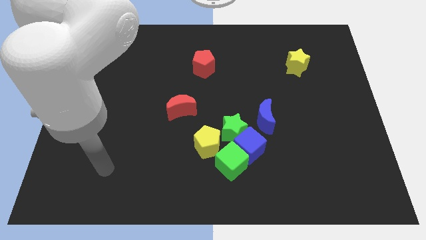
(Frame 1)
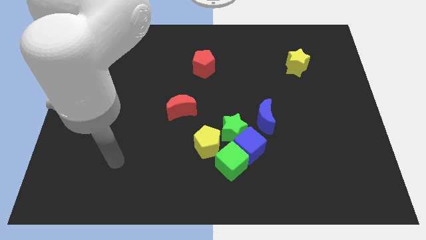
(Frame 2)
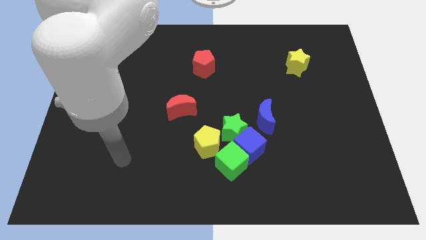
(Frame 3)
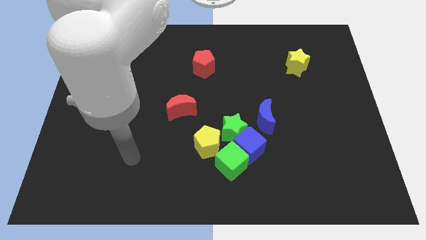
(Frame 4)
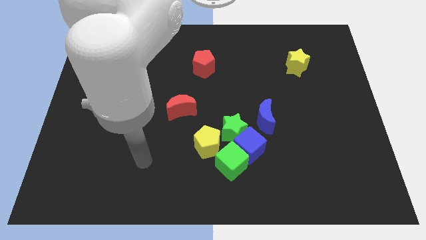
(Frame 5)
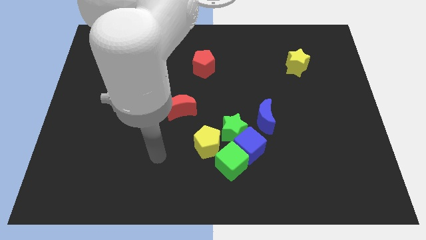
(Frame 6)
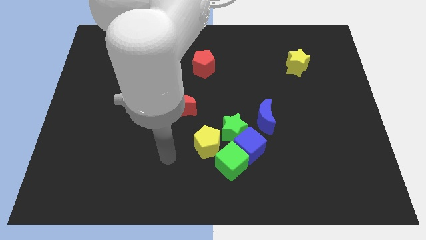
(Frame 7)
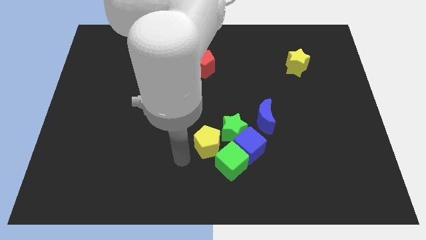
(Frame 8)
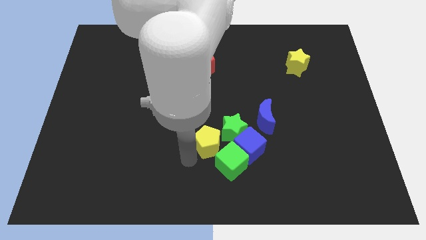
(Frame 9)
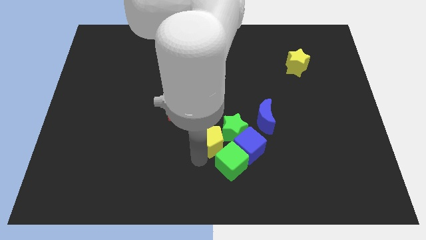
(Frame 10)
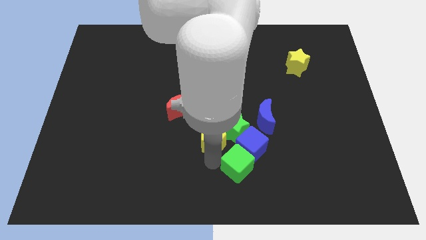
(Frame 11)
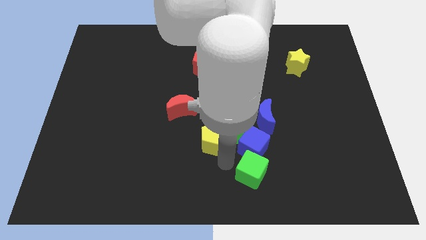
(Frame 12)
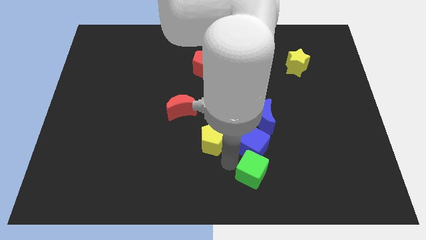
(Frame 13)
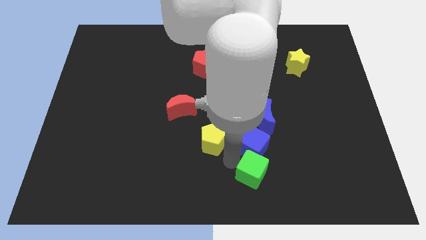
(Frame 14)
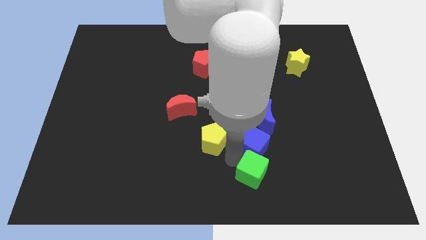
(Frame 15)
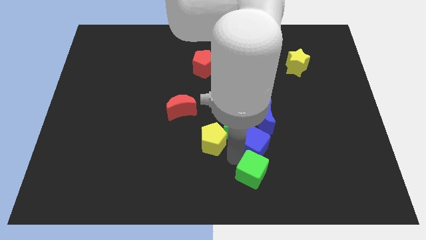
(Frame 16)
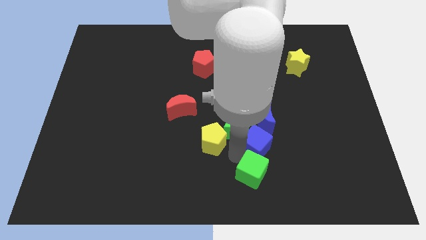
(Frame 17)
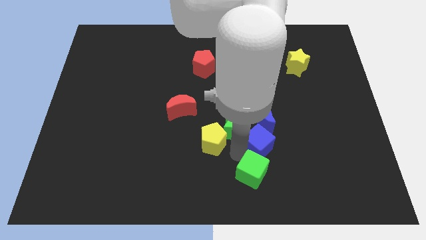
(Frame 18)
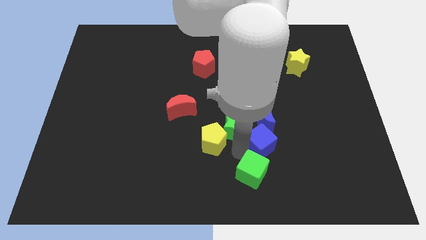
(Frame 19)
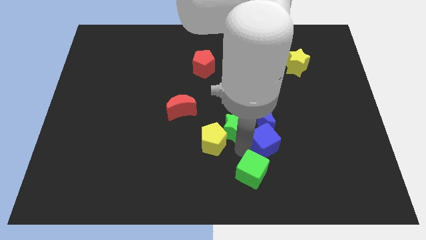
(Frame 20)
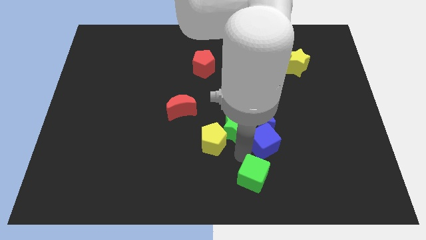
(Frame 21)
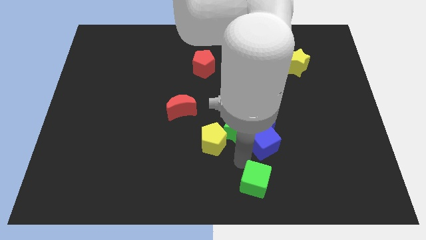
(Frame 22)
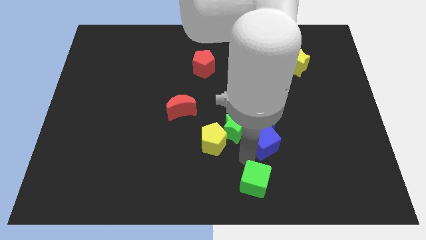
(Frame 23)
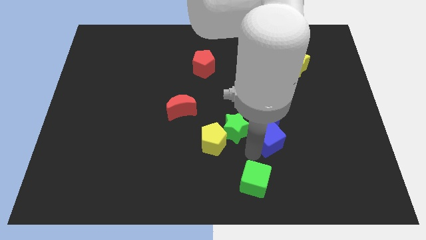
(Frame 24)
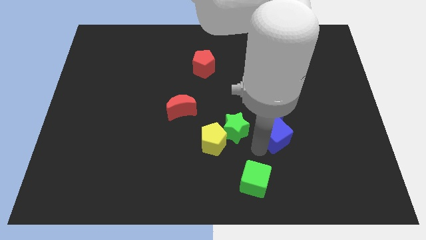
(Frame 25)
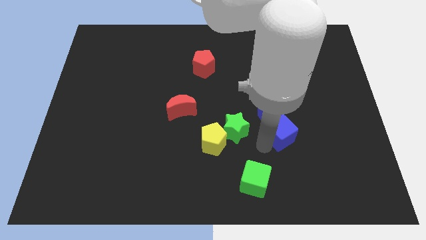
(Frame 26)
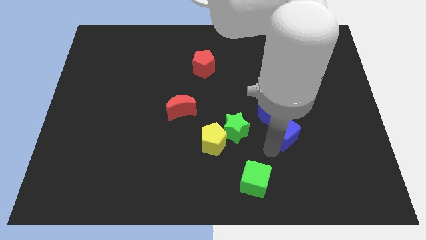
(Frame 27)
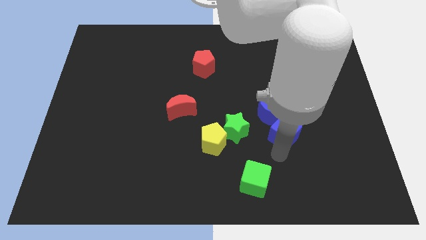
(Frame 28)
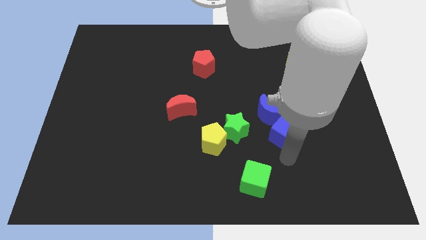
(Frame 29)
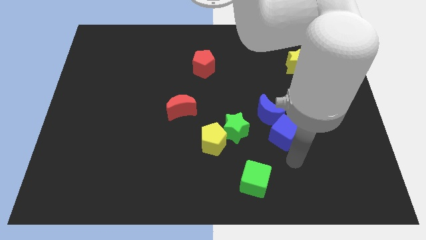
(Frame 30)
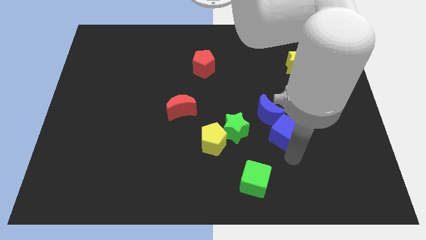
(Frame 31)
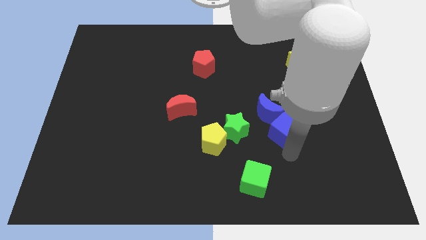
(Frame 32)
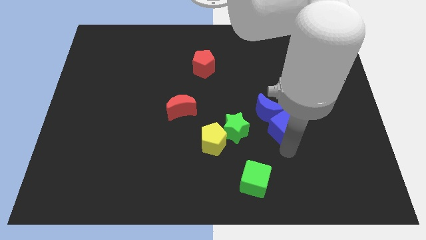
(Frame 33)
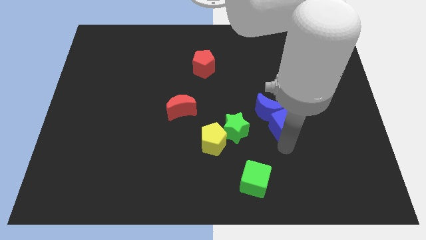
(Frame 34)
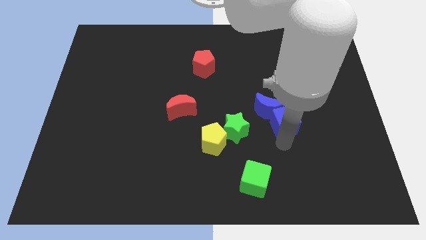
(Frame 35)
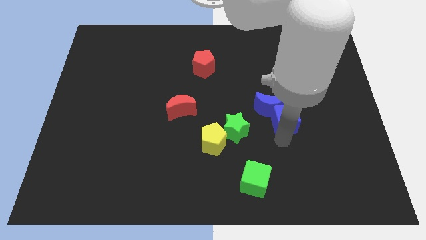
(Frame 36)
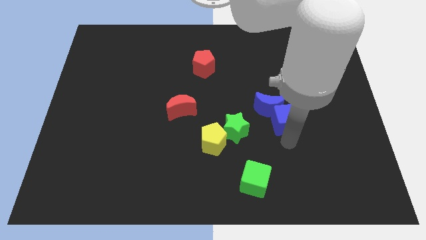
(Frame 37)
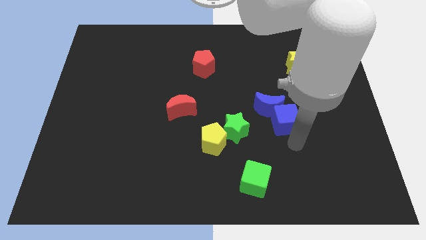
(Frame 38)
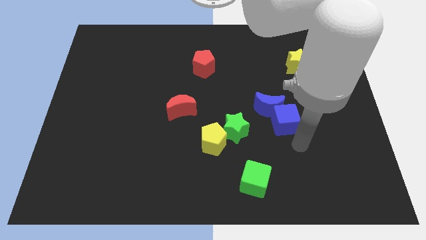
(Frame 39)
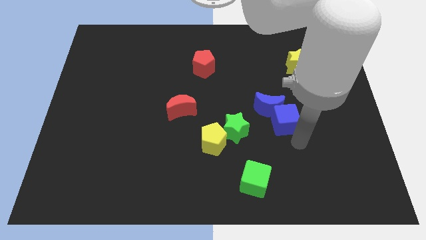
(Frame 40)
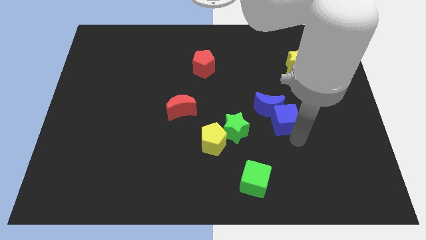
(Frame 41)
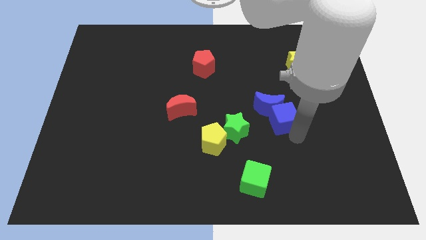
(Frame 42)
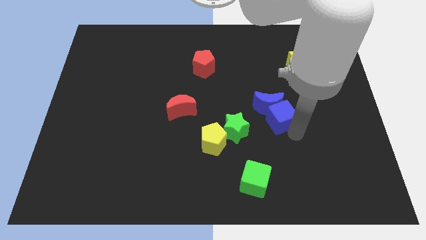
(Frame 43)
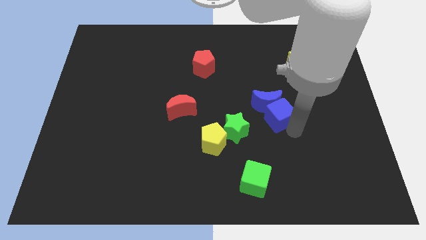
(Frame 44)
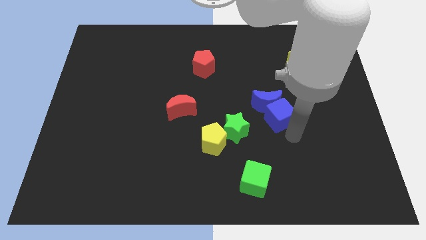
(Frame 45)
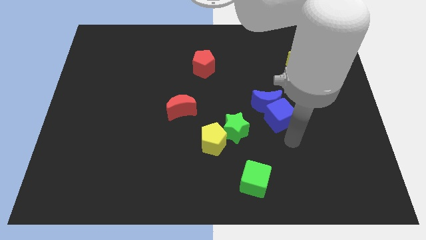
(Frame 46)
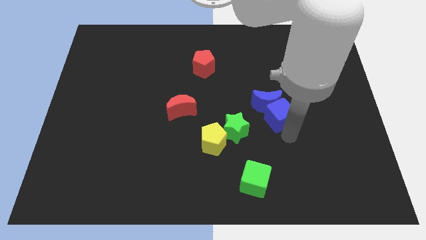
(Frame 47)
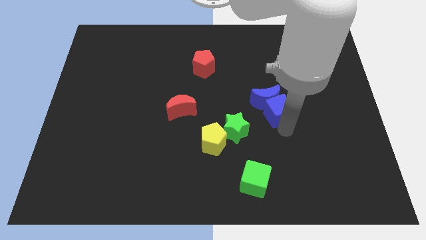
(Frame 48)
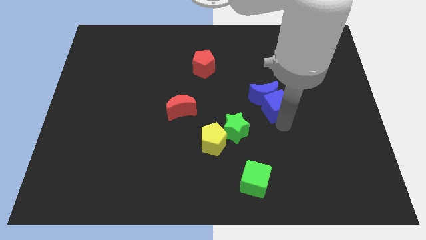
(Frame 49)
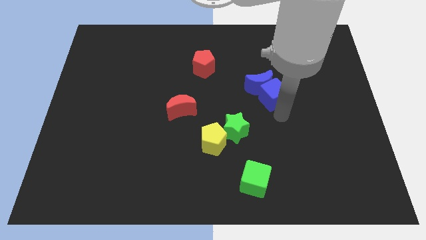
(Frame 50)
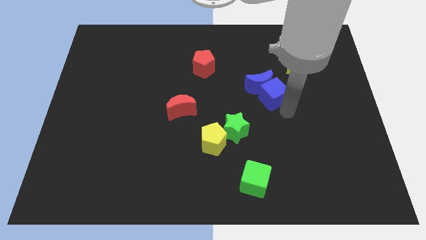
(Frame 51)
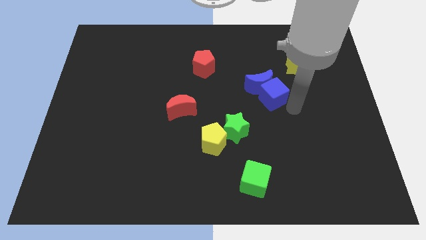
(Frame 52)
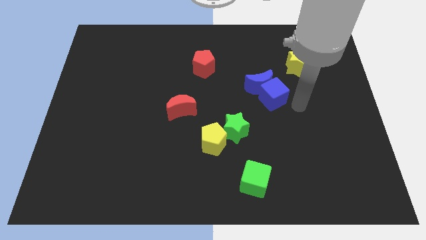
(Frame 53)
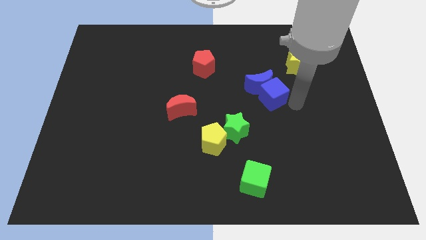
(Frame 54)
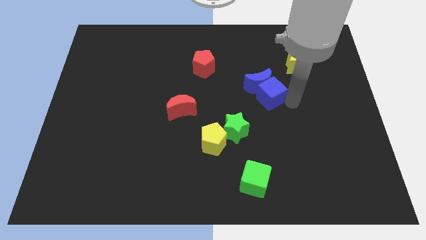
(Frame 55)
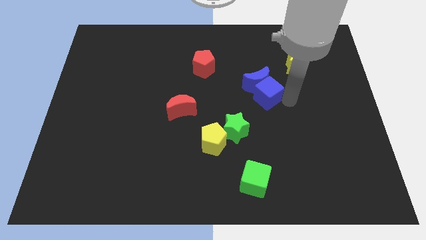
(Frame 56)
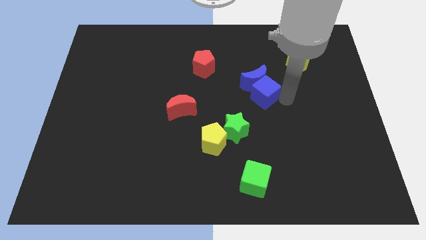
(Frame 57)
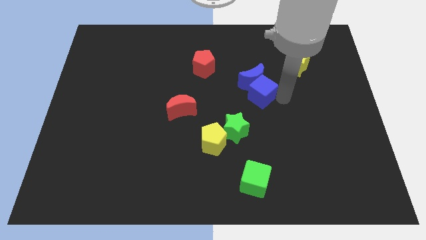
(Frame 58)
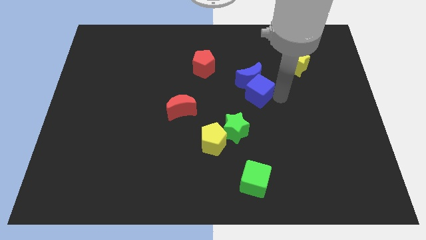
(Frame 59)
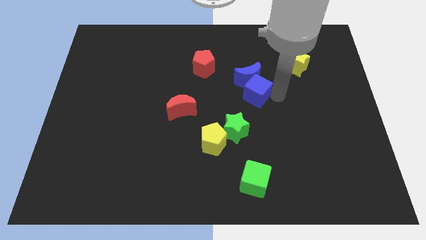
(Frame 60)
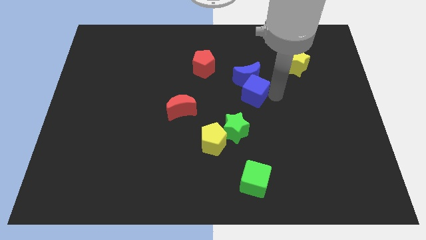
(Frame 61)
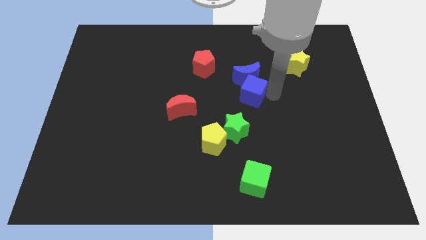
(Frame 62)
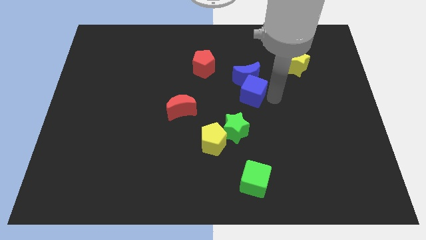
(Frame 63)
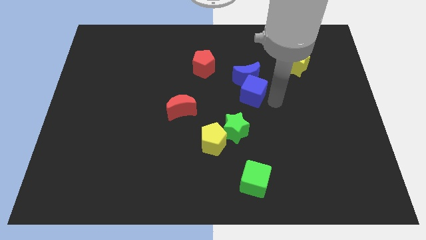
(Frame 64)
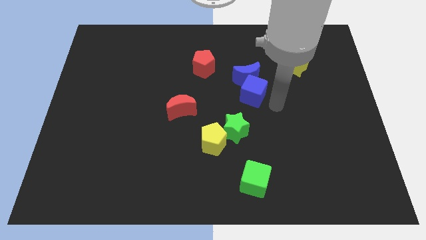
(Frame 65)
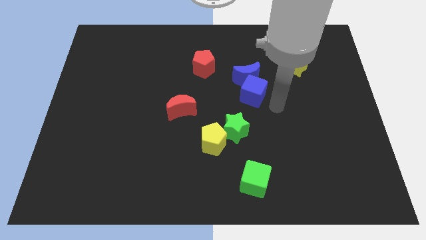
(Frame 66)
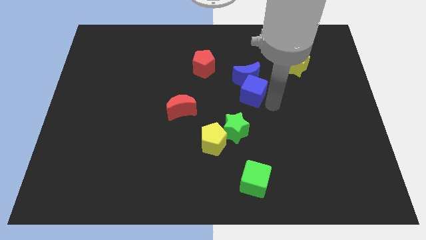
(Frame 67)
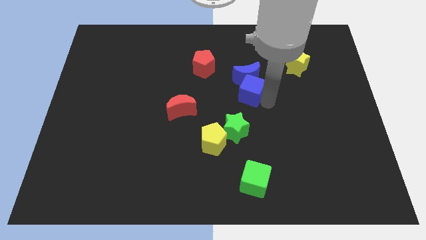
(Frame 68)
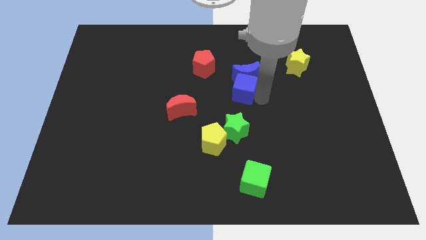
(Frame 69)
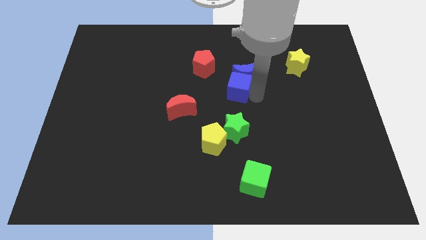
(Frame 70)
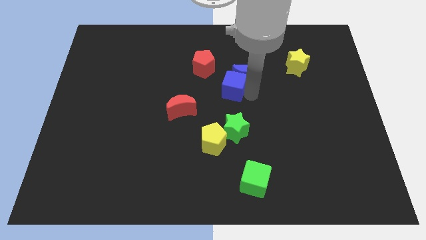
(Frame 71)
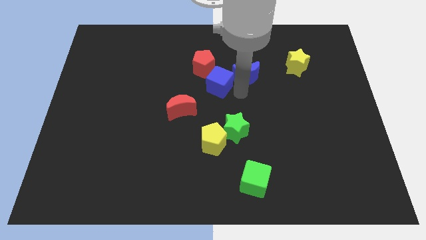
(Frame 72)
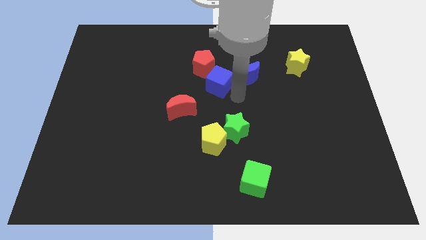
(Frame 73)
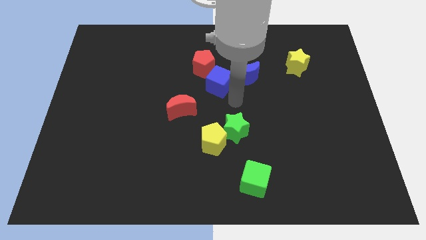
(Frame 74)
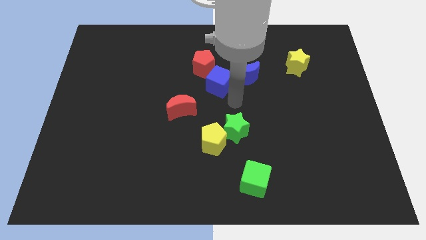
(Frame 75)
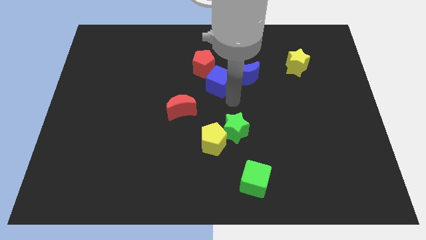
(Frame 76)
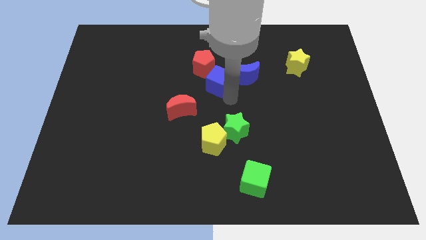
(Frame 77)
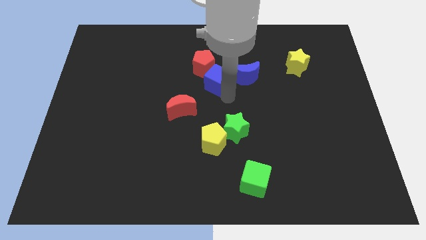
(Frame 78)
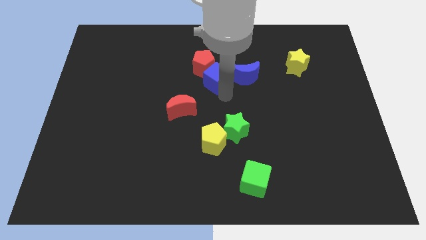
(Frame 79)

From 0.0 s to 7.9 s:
put the blue cube next to the red pentagon
